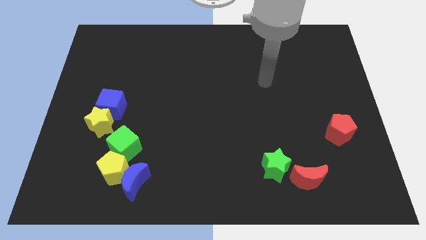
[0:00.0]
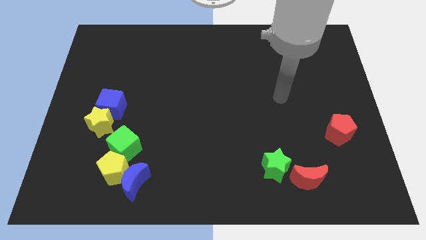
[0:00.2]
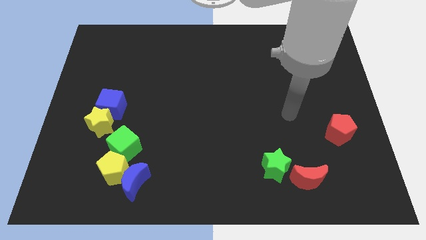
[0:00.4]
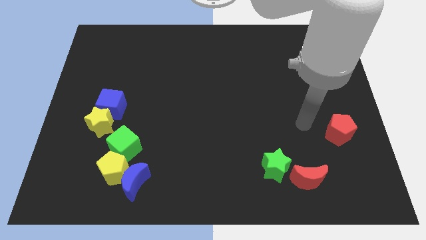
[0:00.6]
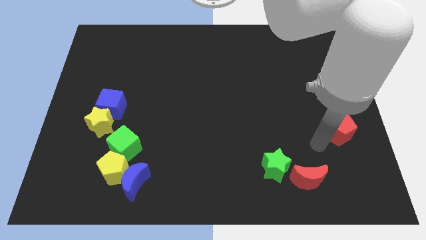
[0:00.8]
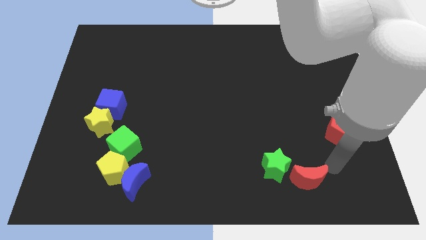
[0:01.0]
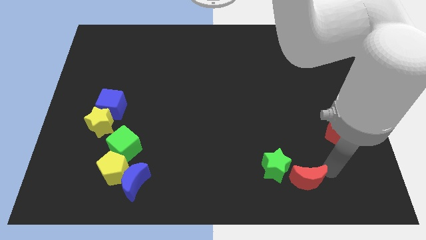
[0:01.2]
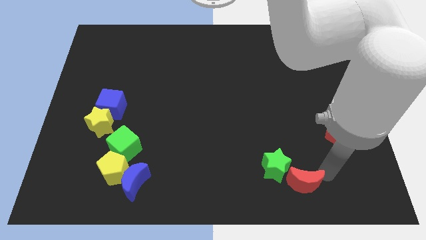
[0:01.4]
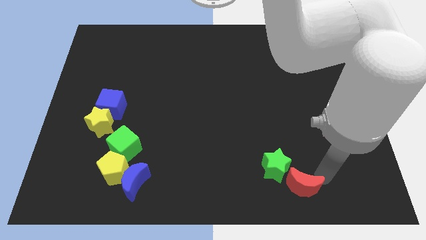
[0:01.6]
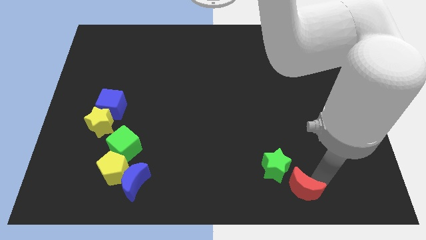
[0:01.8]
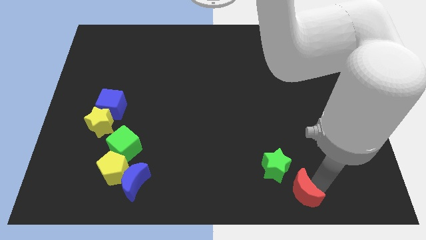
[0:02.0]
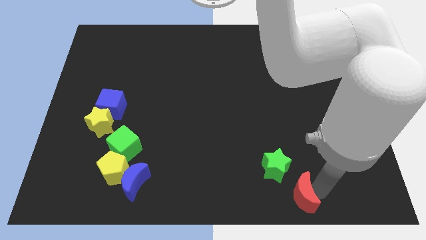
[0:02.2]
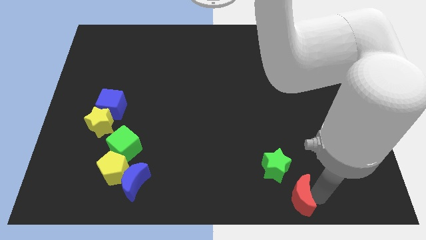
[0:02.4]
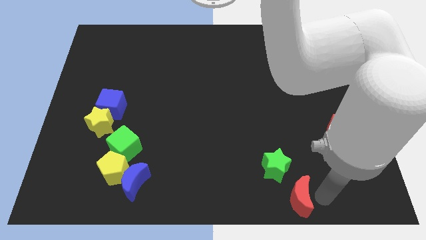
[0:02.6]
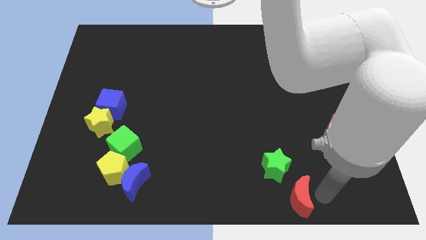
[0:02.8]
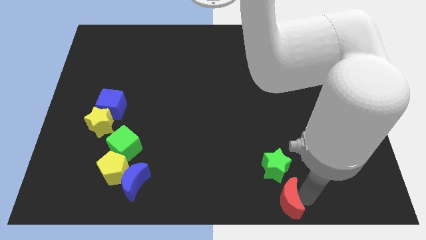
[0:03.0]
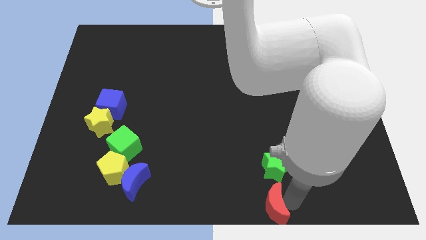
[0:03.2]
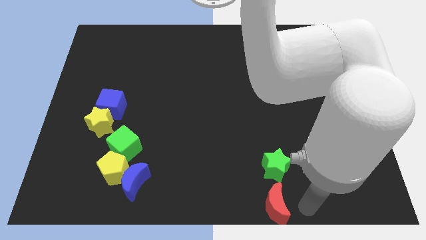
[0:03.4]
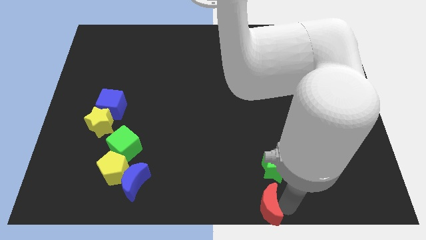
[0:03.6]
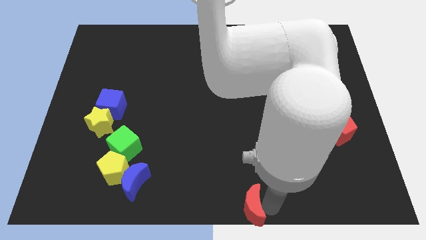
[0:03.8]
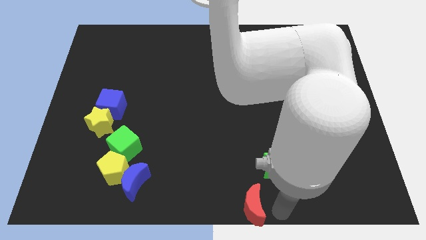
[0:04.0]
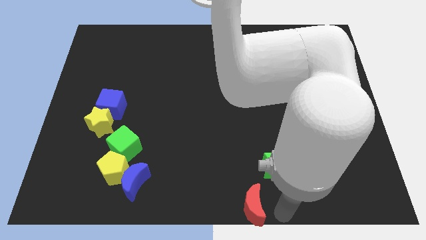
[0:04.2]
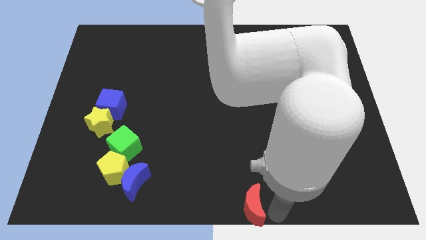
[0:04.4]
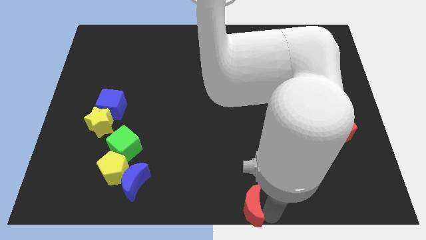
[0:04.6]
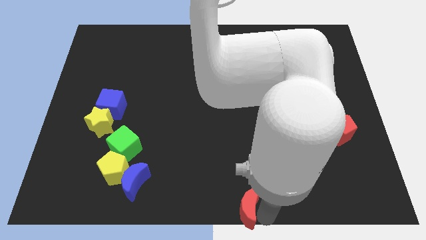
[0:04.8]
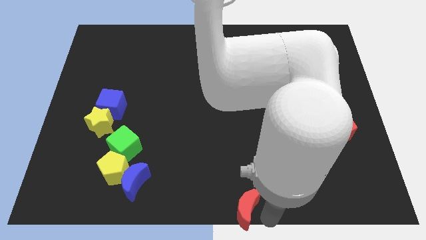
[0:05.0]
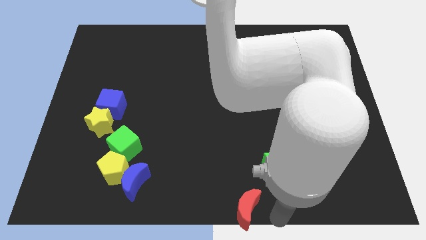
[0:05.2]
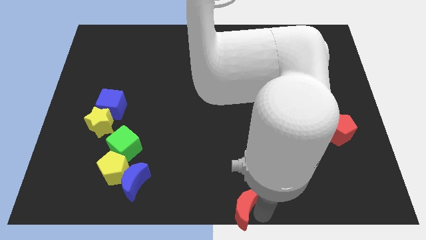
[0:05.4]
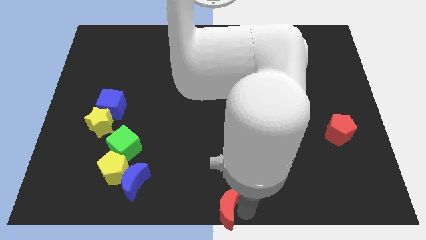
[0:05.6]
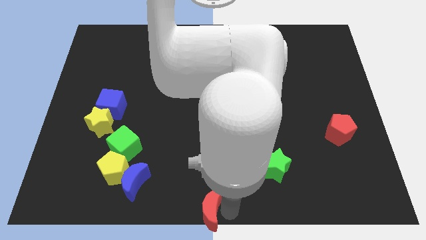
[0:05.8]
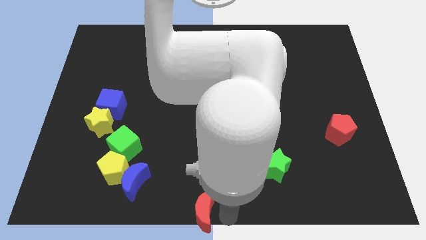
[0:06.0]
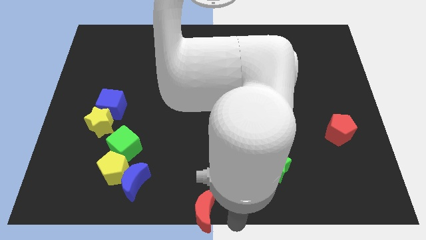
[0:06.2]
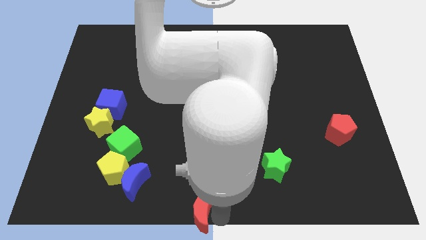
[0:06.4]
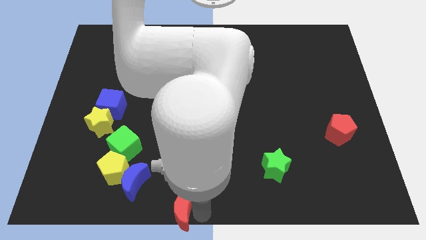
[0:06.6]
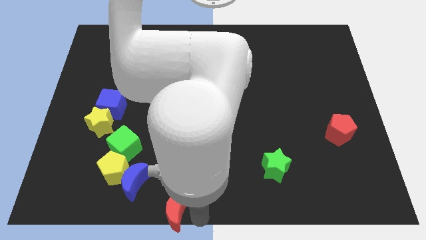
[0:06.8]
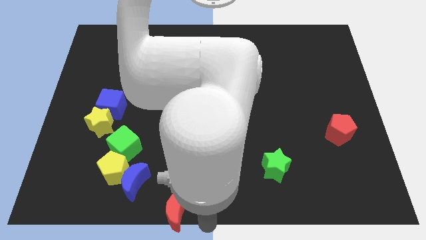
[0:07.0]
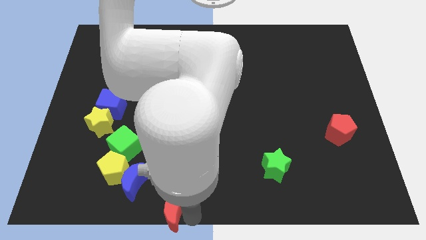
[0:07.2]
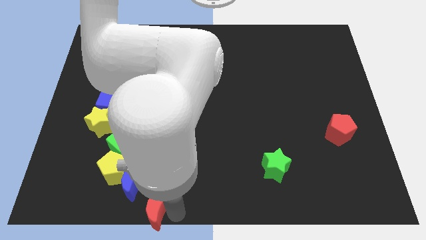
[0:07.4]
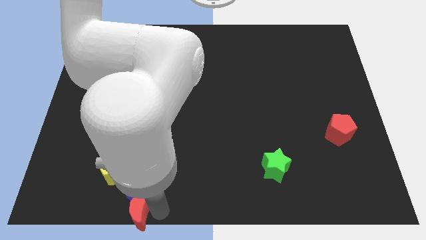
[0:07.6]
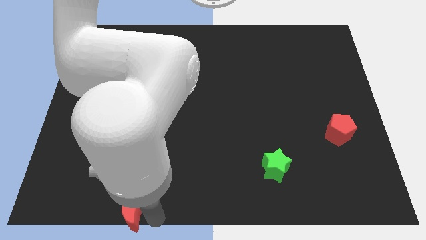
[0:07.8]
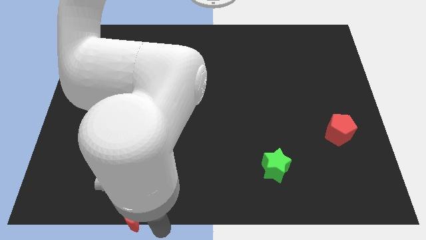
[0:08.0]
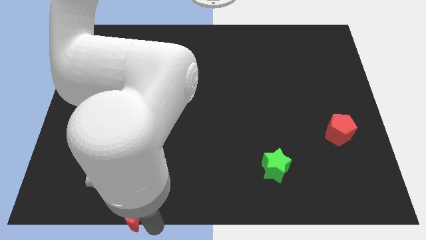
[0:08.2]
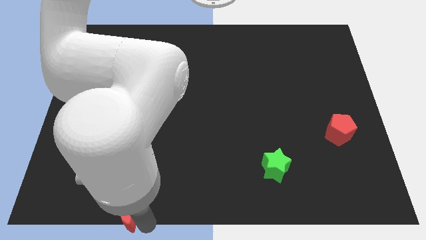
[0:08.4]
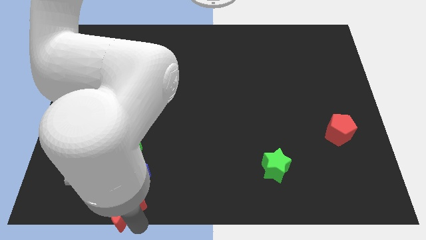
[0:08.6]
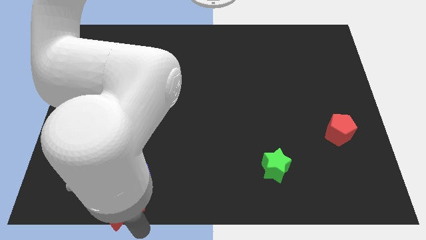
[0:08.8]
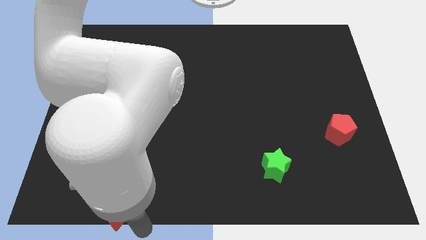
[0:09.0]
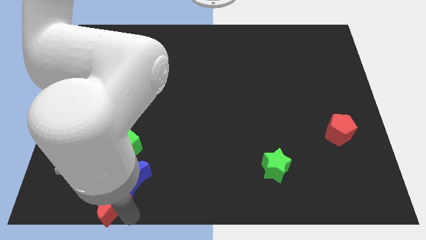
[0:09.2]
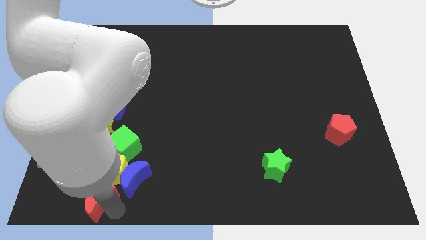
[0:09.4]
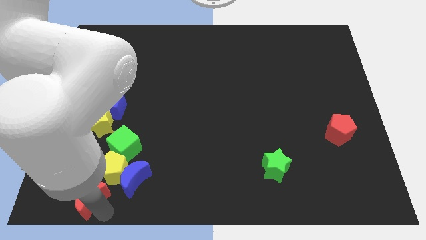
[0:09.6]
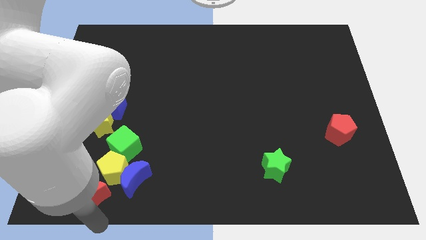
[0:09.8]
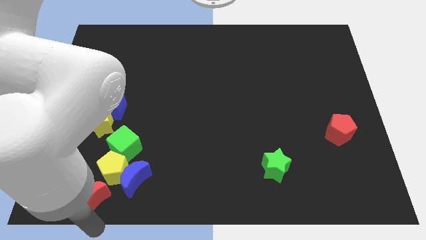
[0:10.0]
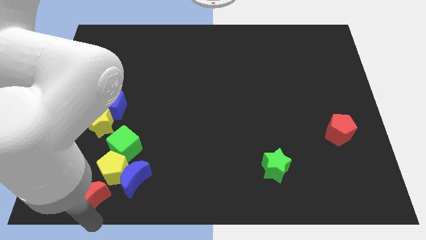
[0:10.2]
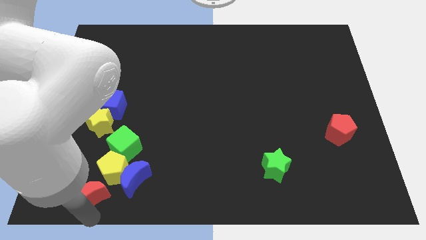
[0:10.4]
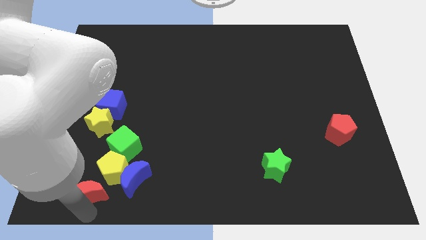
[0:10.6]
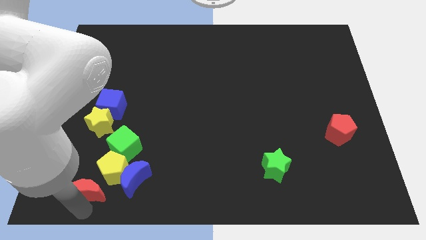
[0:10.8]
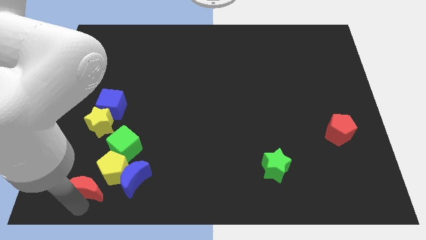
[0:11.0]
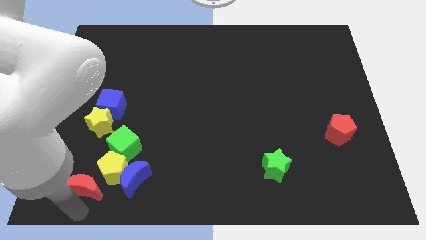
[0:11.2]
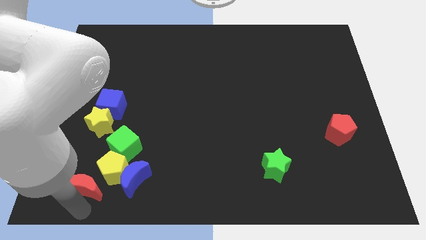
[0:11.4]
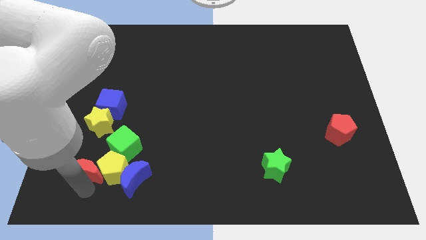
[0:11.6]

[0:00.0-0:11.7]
move the red moon to the top left side of the yellow pentagon
